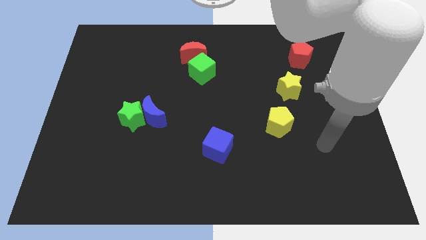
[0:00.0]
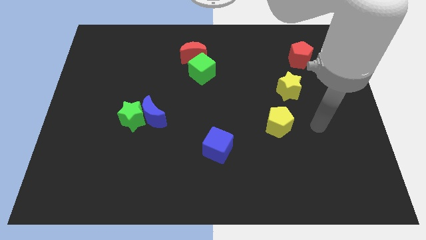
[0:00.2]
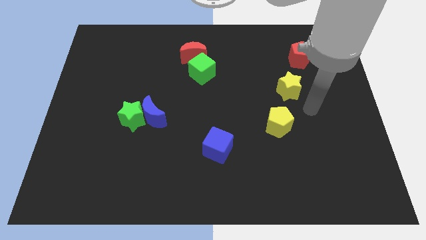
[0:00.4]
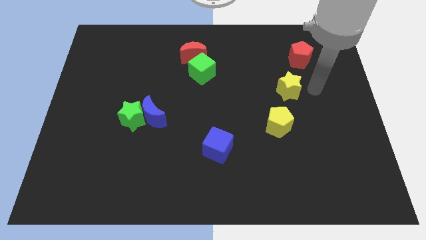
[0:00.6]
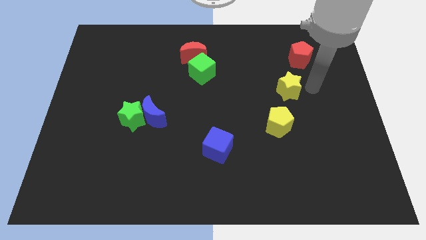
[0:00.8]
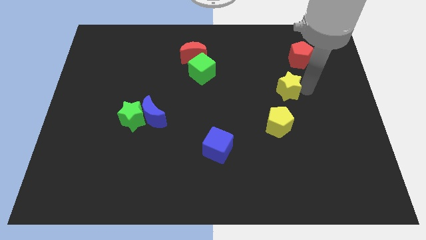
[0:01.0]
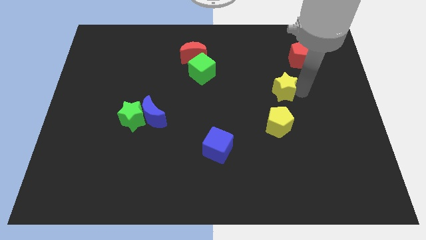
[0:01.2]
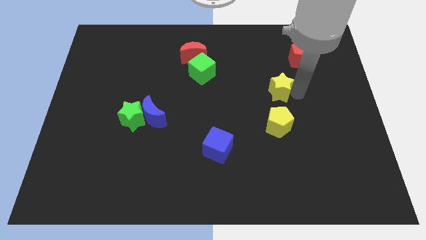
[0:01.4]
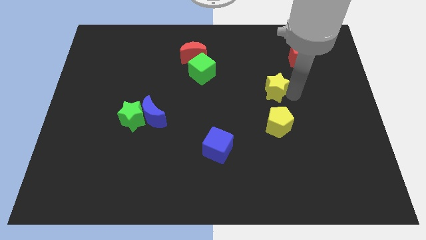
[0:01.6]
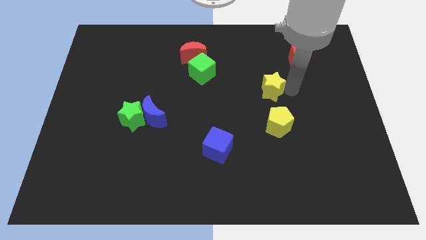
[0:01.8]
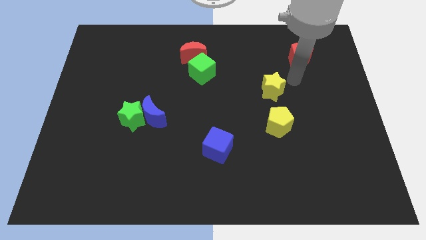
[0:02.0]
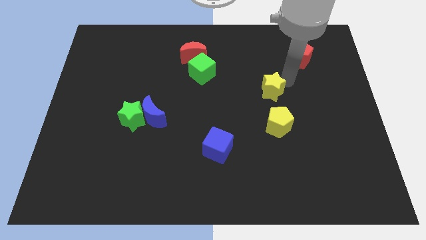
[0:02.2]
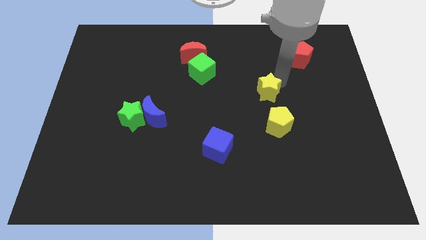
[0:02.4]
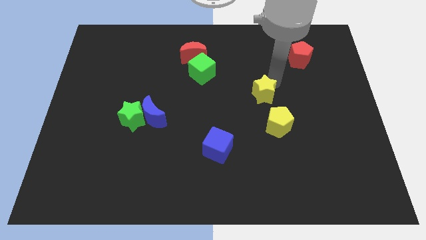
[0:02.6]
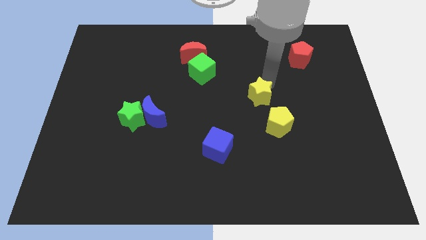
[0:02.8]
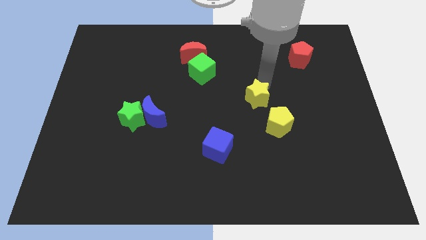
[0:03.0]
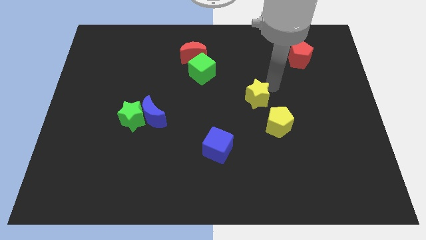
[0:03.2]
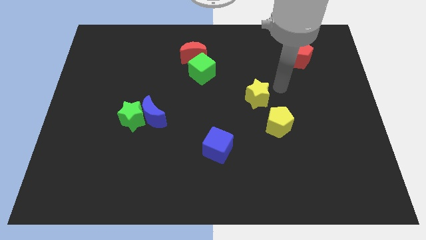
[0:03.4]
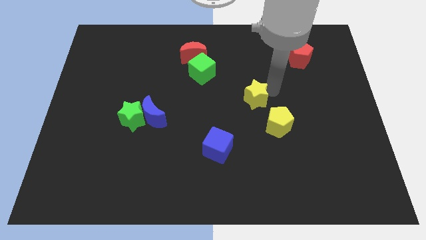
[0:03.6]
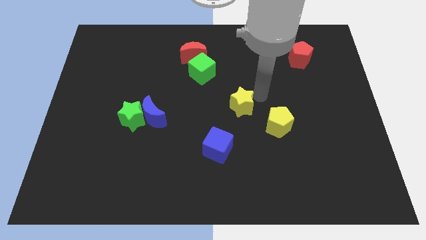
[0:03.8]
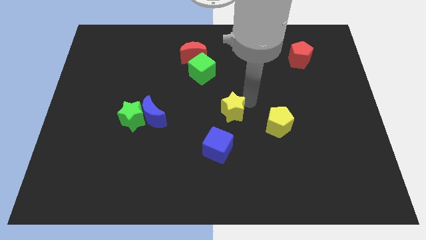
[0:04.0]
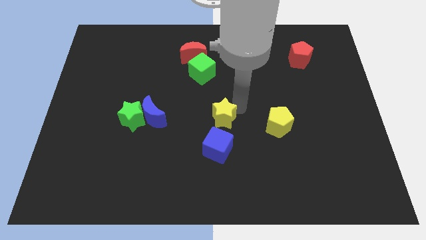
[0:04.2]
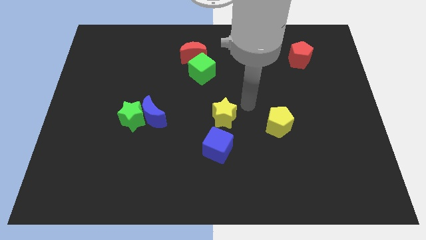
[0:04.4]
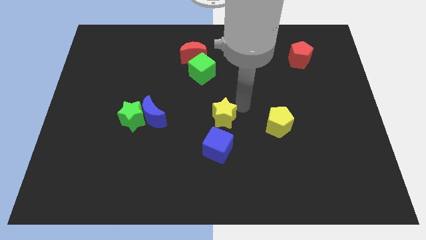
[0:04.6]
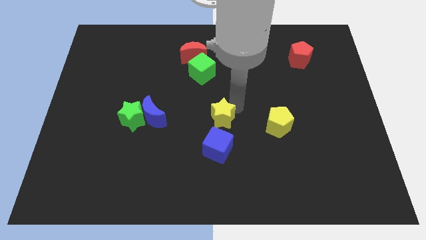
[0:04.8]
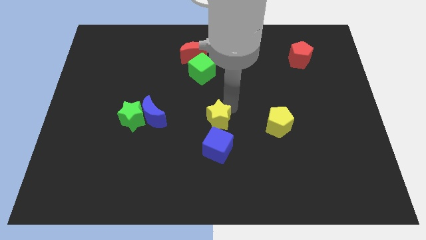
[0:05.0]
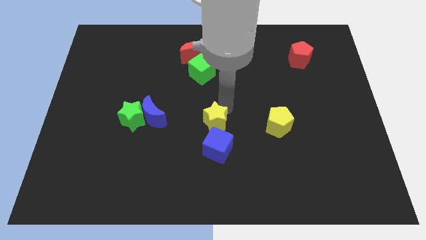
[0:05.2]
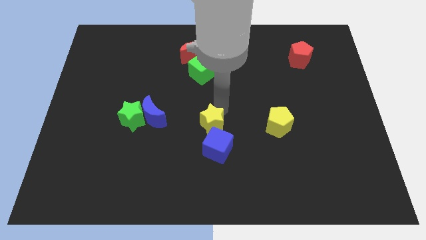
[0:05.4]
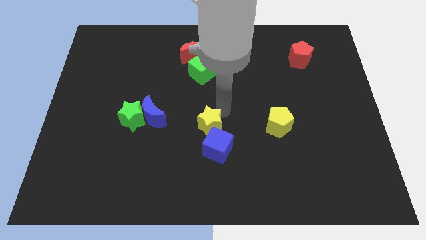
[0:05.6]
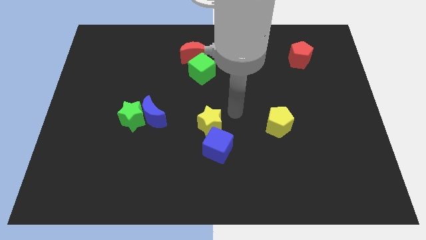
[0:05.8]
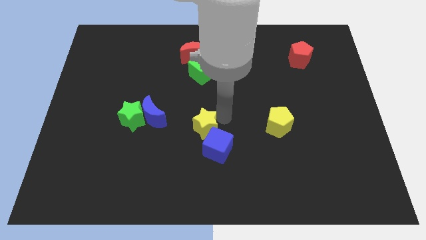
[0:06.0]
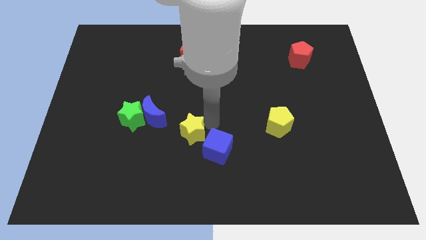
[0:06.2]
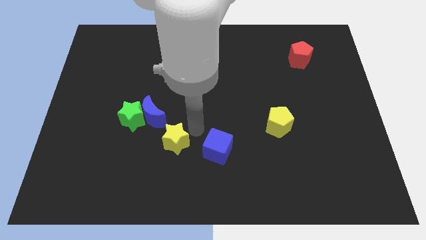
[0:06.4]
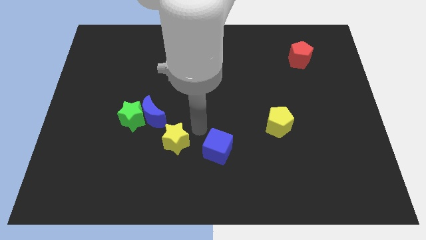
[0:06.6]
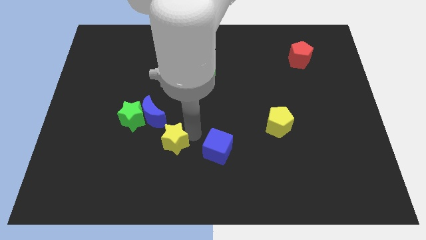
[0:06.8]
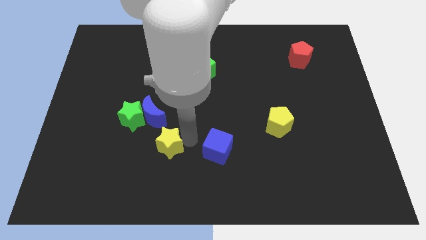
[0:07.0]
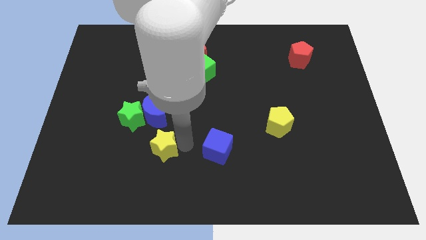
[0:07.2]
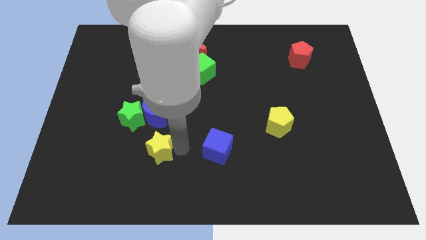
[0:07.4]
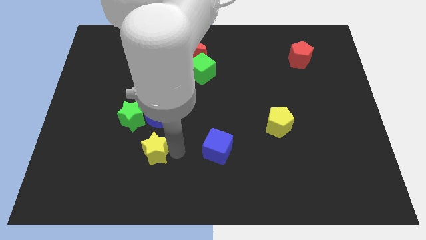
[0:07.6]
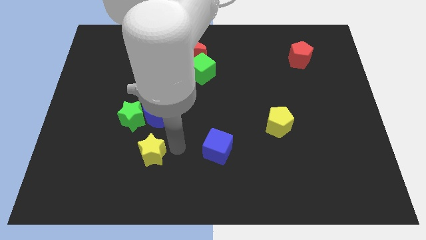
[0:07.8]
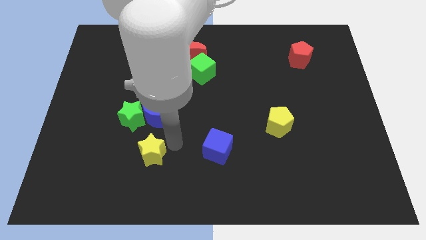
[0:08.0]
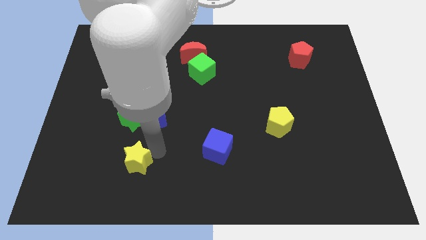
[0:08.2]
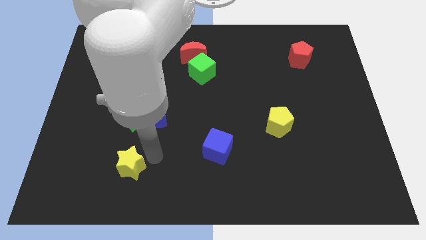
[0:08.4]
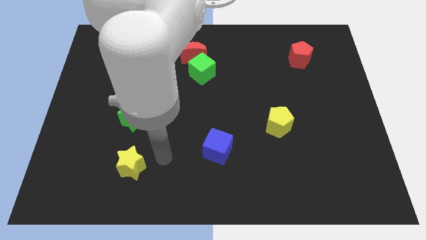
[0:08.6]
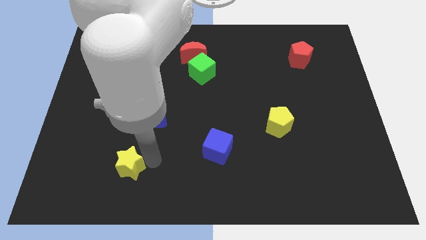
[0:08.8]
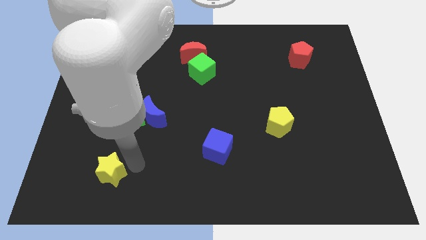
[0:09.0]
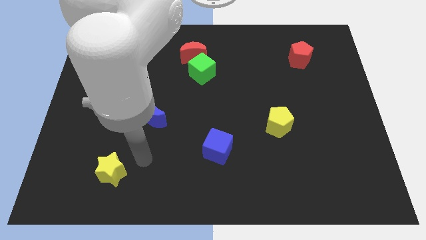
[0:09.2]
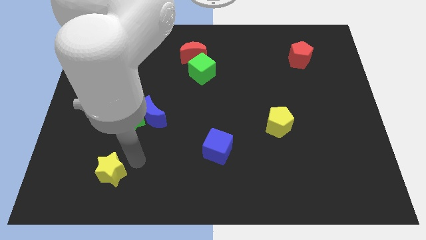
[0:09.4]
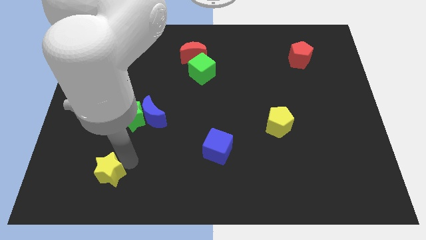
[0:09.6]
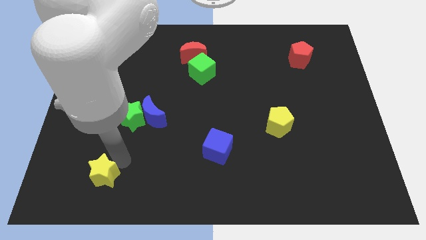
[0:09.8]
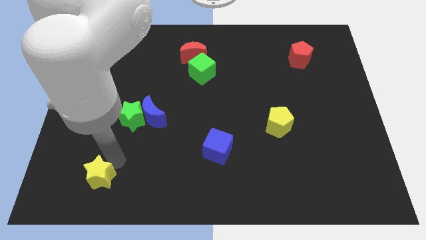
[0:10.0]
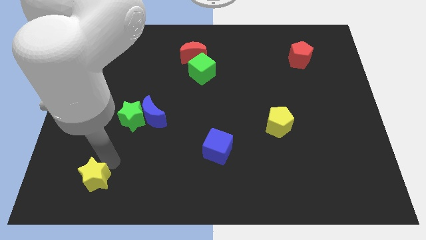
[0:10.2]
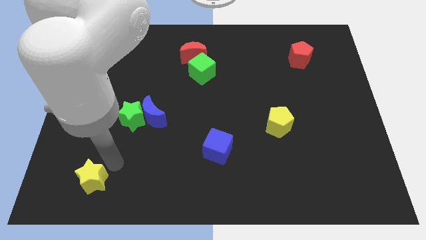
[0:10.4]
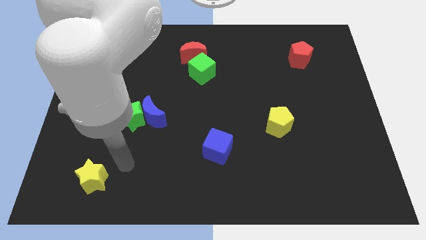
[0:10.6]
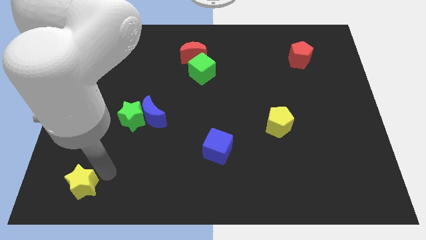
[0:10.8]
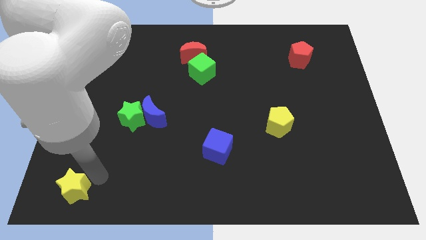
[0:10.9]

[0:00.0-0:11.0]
move the yellow star to the bottom left corner
